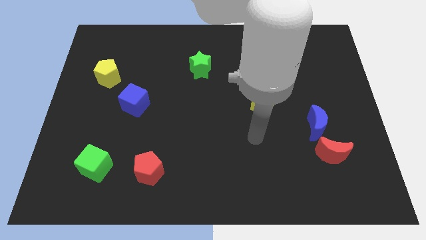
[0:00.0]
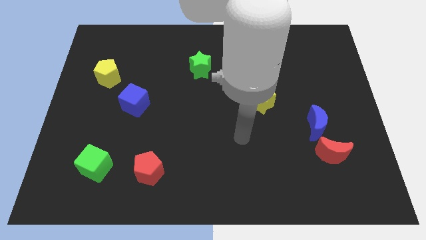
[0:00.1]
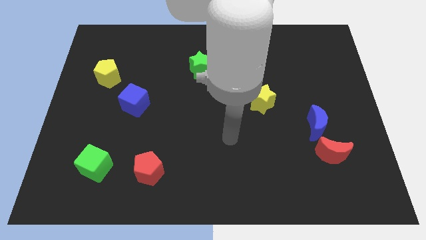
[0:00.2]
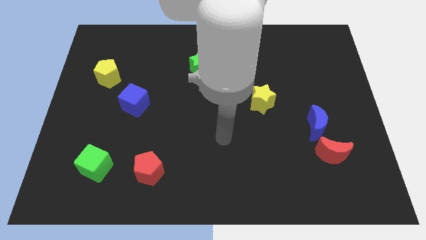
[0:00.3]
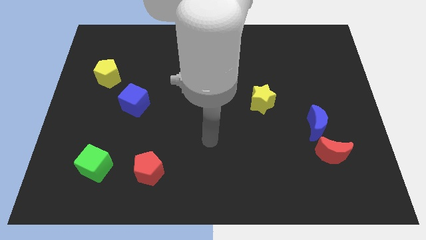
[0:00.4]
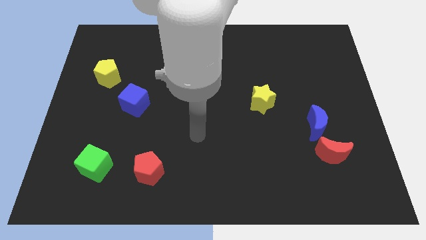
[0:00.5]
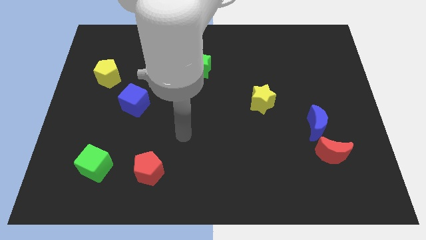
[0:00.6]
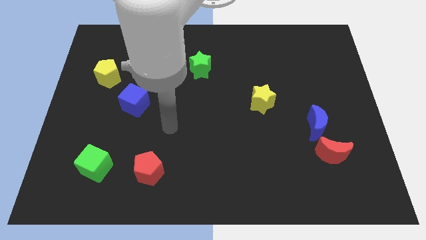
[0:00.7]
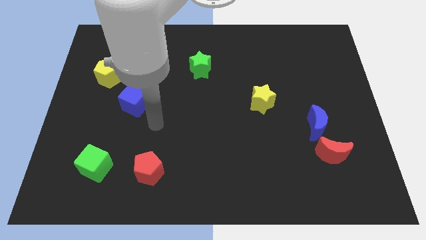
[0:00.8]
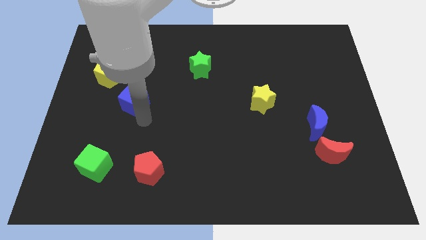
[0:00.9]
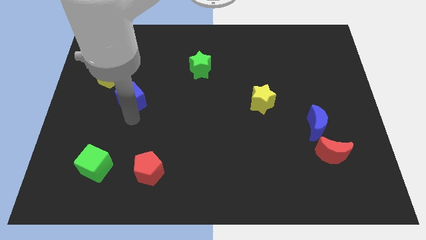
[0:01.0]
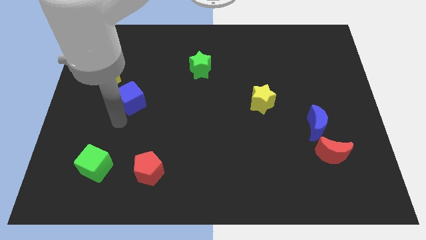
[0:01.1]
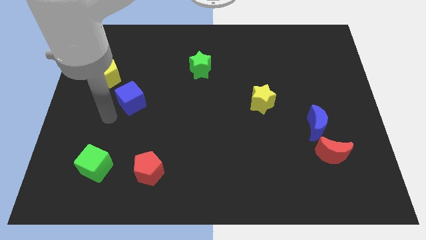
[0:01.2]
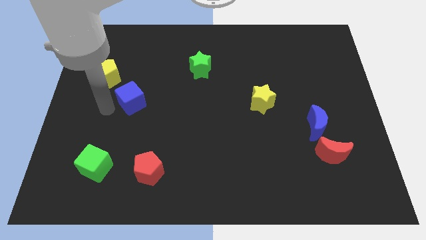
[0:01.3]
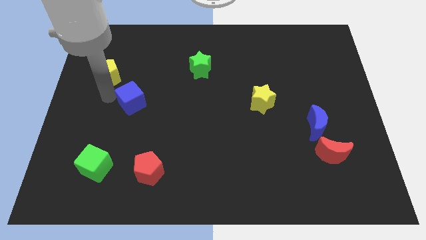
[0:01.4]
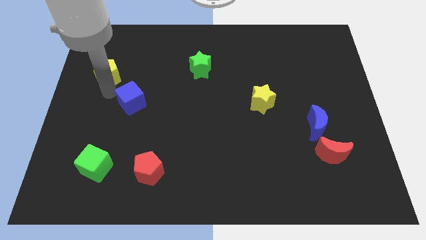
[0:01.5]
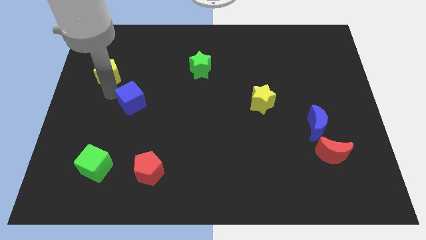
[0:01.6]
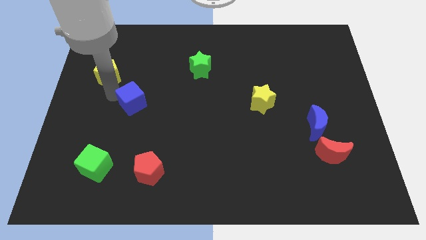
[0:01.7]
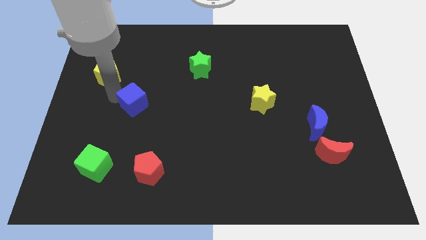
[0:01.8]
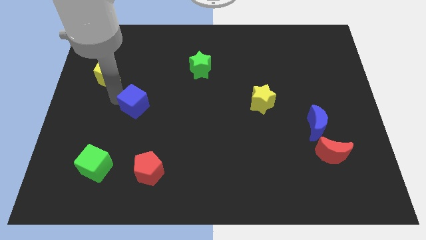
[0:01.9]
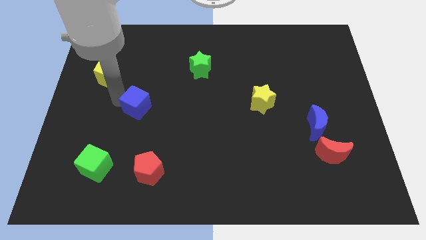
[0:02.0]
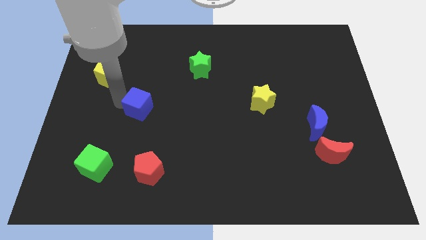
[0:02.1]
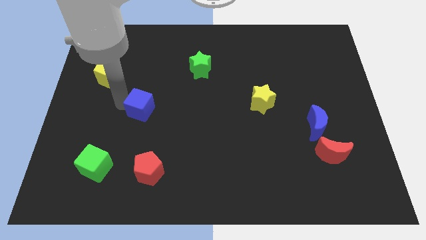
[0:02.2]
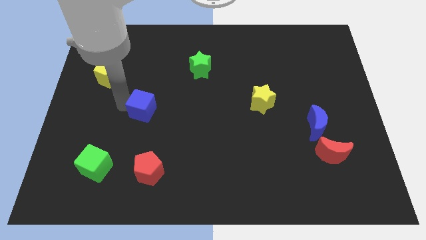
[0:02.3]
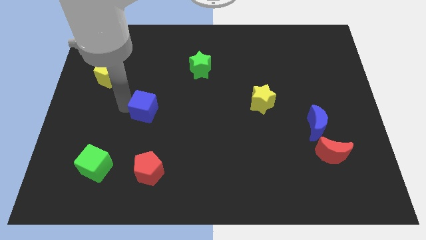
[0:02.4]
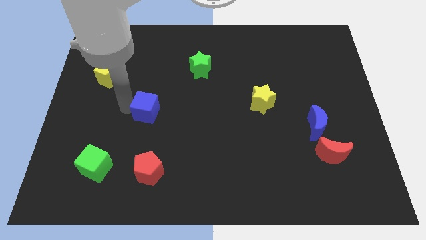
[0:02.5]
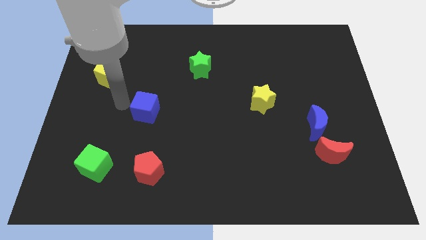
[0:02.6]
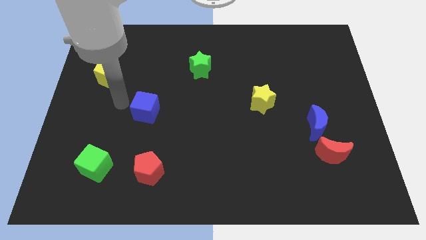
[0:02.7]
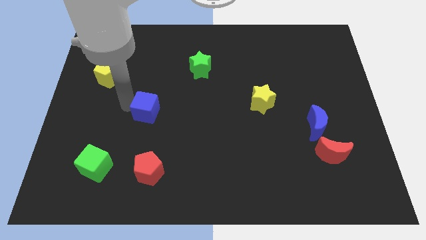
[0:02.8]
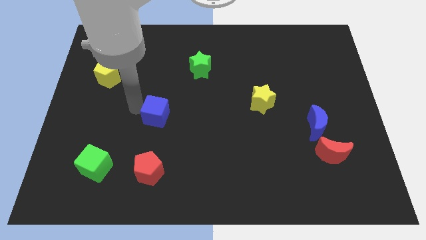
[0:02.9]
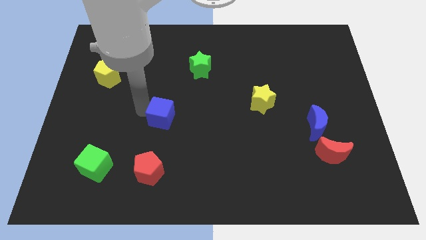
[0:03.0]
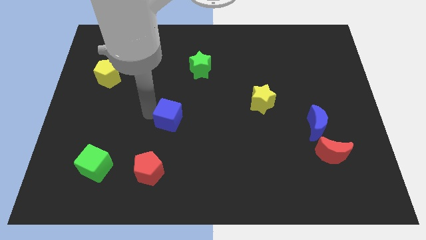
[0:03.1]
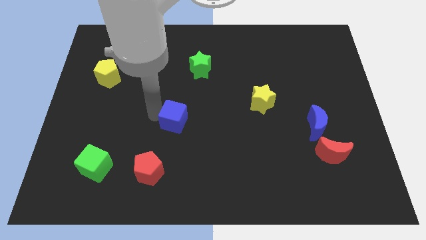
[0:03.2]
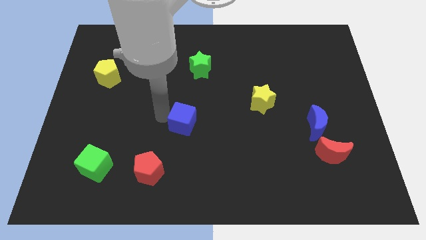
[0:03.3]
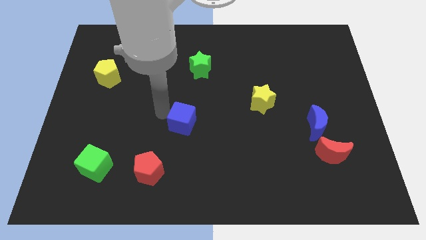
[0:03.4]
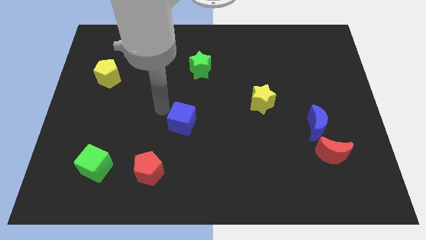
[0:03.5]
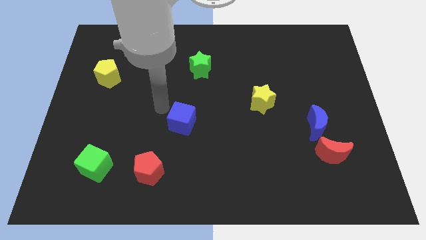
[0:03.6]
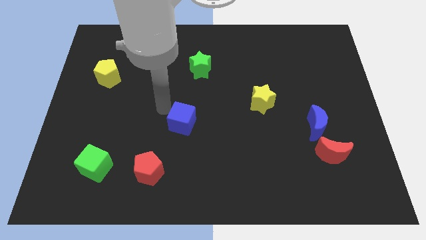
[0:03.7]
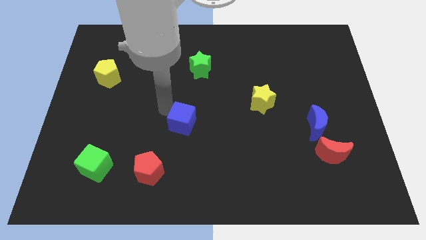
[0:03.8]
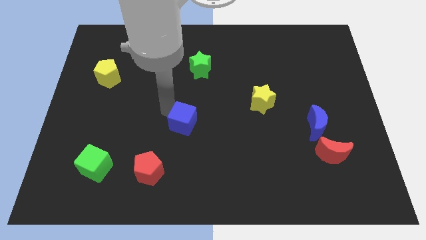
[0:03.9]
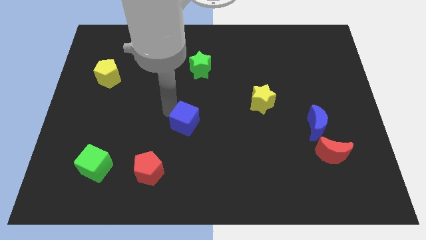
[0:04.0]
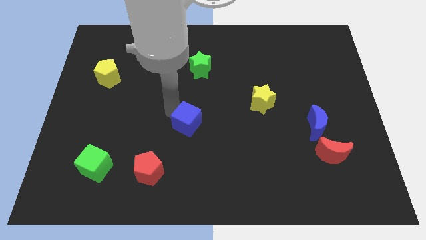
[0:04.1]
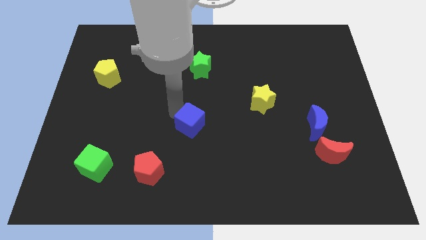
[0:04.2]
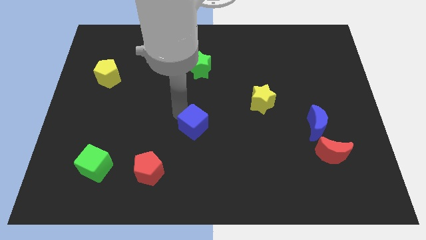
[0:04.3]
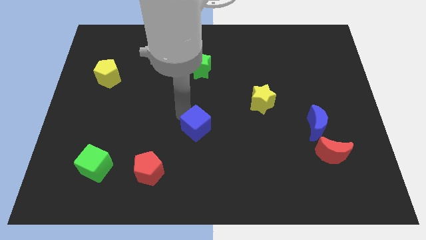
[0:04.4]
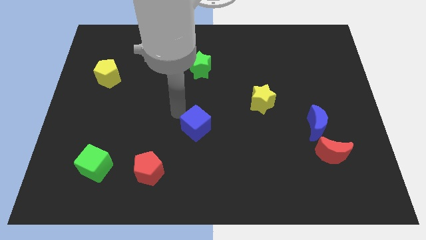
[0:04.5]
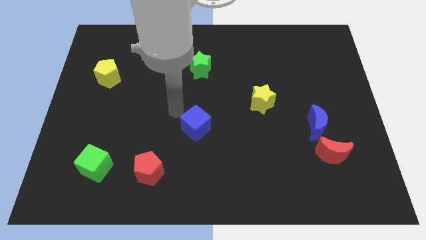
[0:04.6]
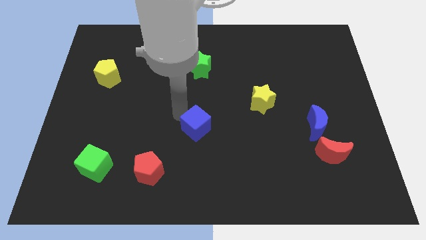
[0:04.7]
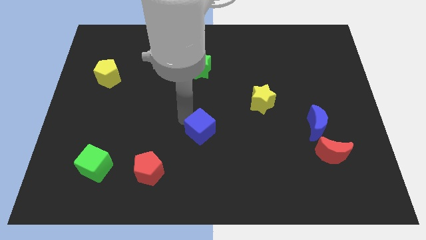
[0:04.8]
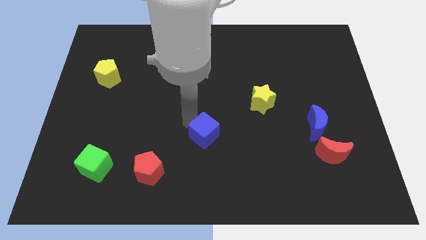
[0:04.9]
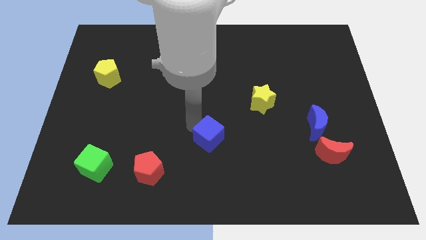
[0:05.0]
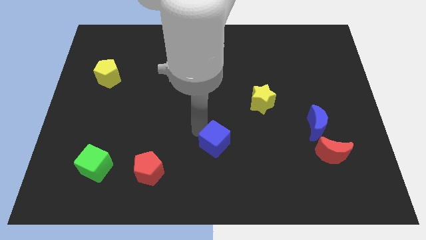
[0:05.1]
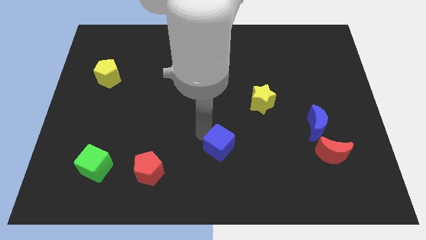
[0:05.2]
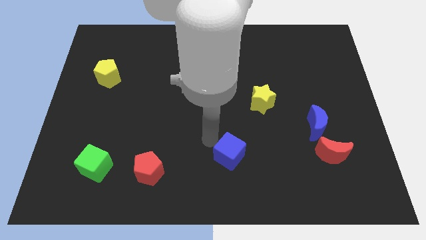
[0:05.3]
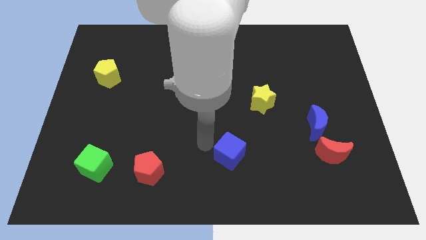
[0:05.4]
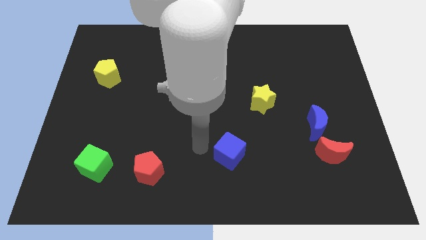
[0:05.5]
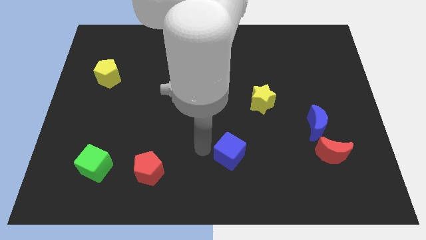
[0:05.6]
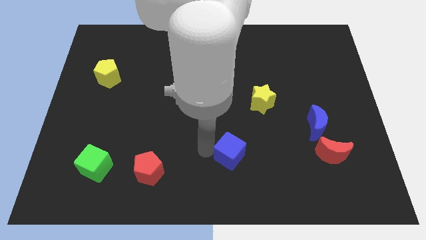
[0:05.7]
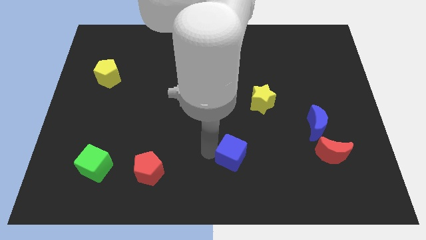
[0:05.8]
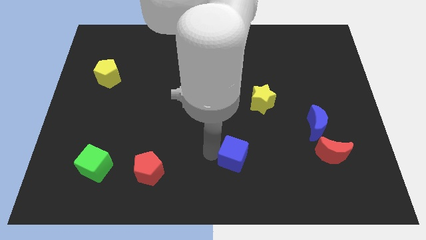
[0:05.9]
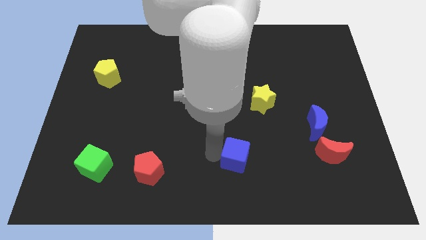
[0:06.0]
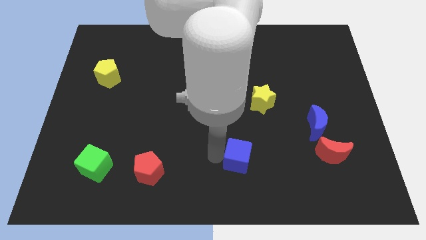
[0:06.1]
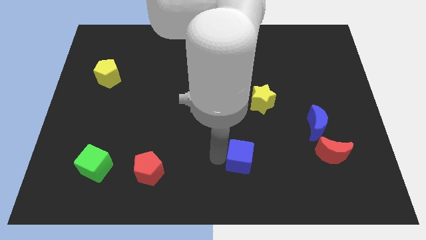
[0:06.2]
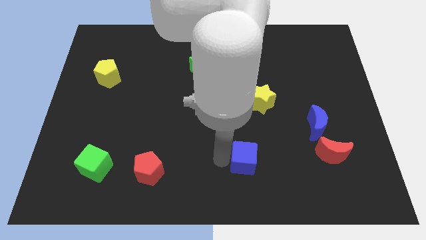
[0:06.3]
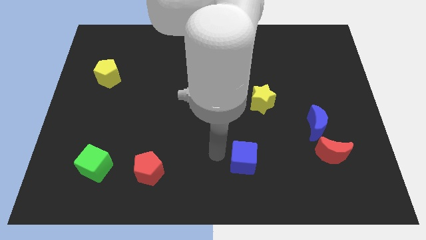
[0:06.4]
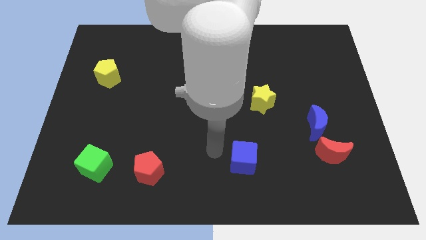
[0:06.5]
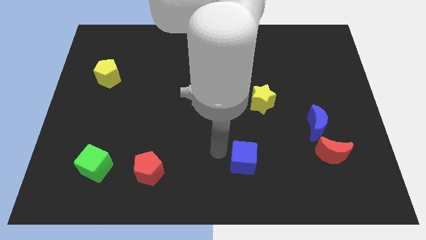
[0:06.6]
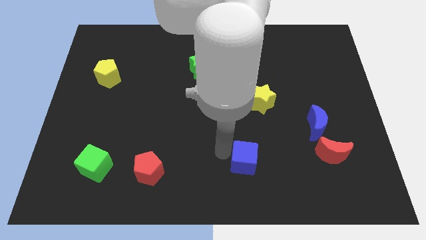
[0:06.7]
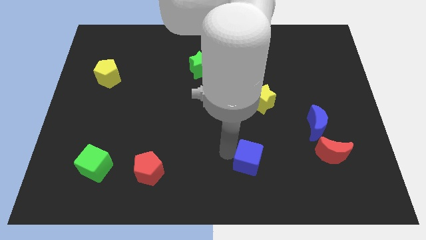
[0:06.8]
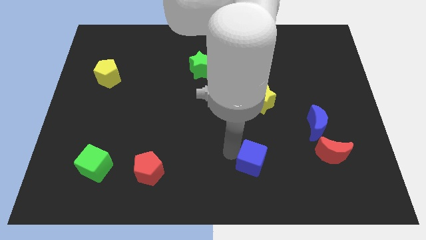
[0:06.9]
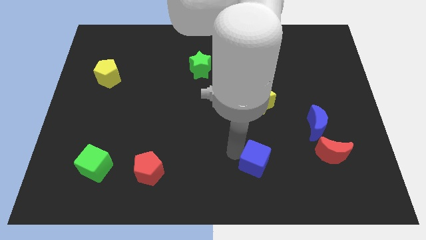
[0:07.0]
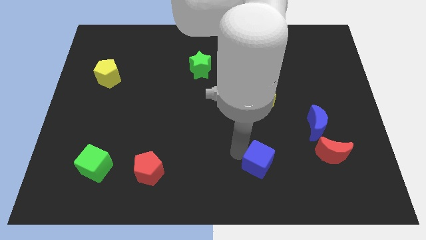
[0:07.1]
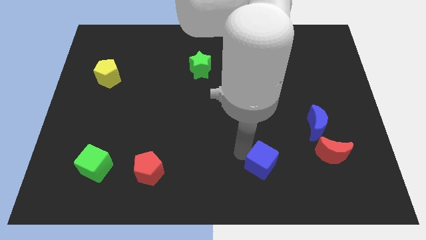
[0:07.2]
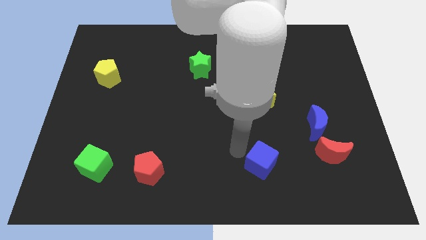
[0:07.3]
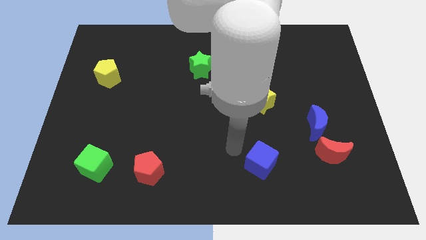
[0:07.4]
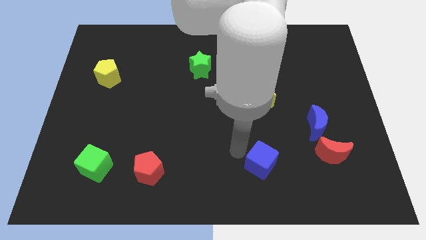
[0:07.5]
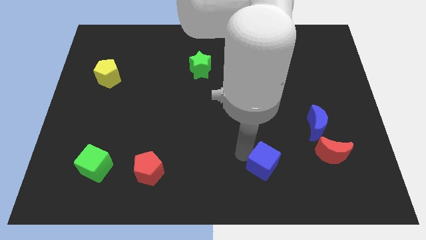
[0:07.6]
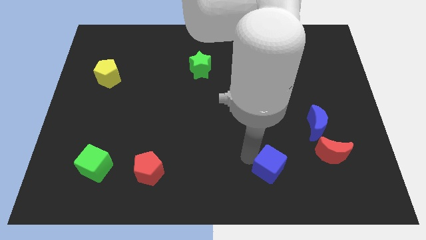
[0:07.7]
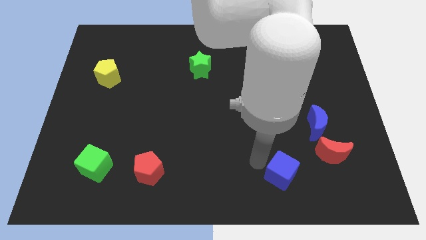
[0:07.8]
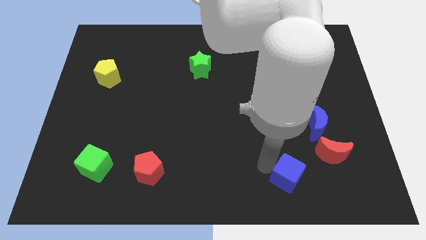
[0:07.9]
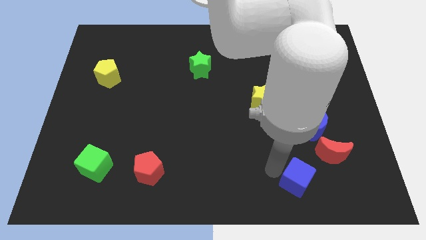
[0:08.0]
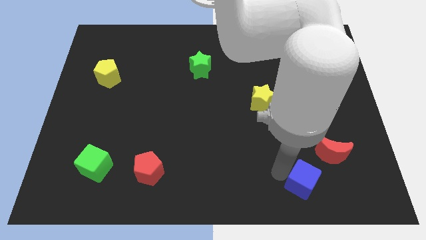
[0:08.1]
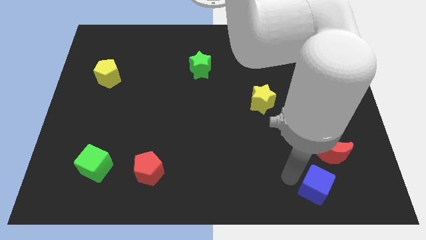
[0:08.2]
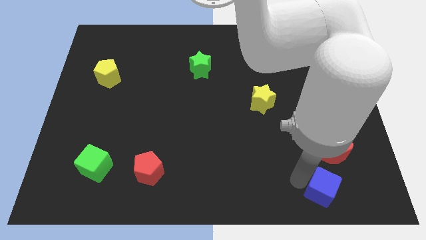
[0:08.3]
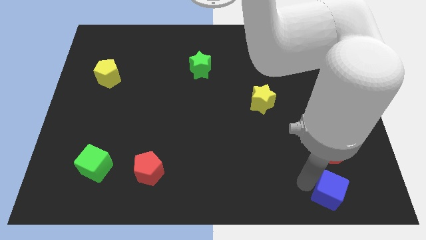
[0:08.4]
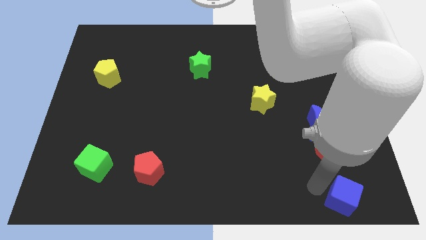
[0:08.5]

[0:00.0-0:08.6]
move the blue cube to the lower right corner
